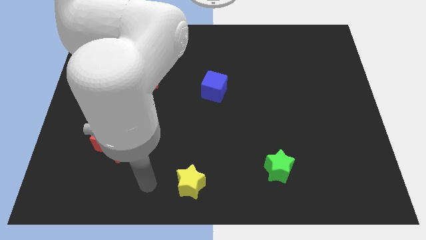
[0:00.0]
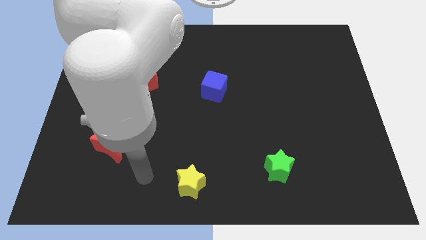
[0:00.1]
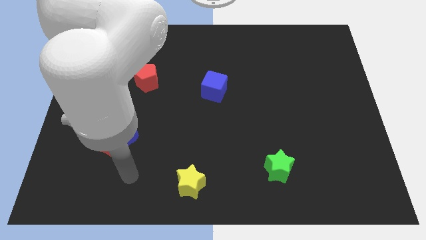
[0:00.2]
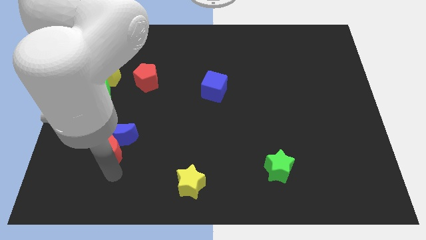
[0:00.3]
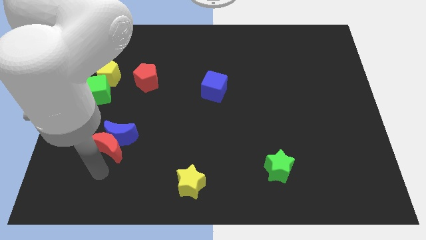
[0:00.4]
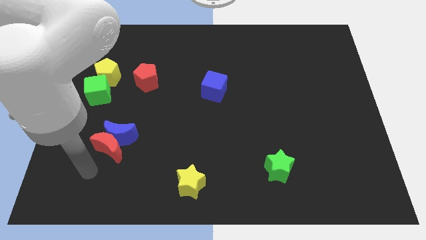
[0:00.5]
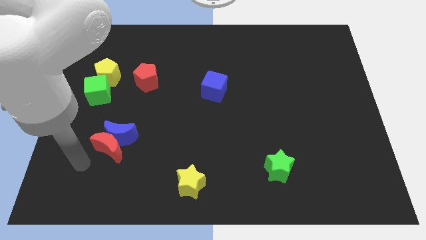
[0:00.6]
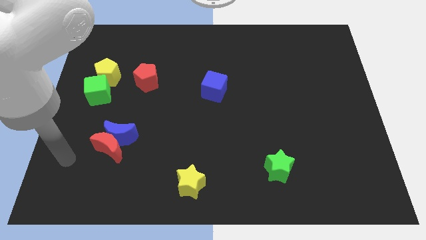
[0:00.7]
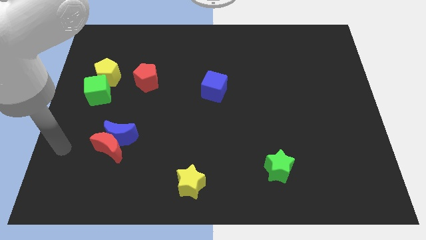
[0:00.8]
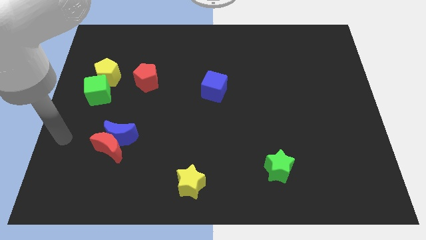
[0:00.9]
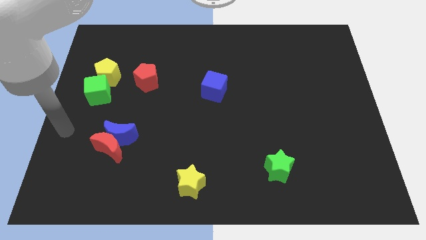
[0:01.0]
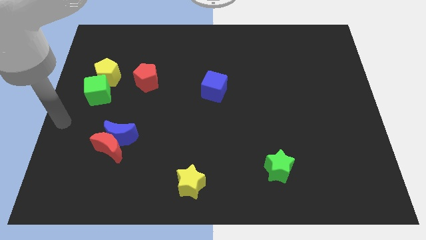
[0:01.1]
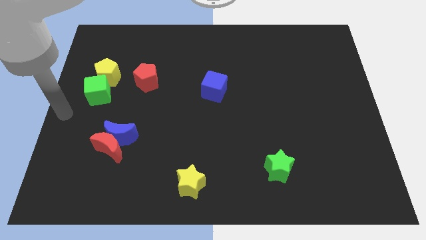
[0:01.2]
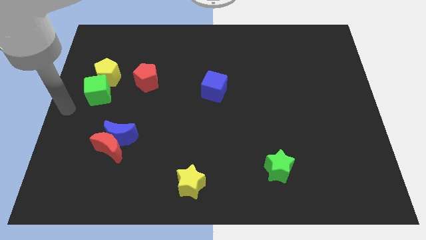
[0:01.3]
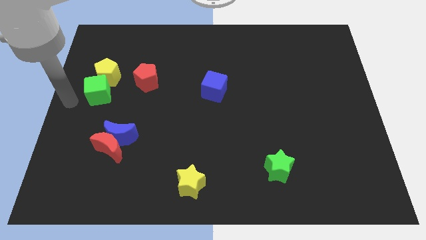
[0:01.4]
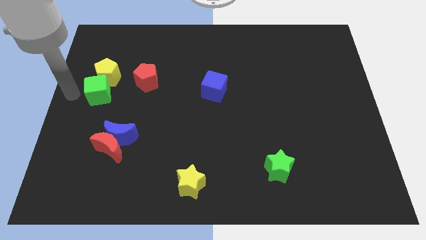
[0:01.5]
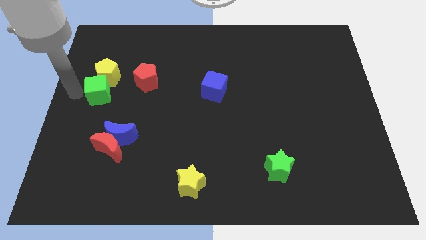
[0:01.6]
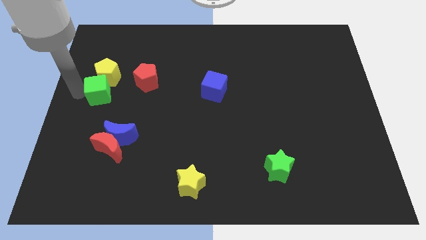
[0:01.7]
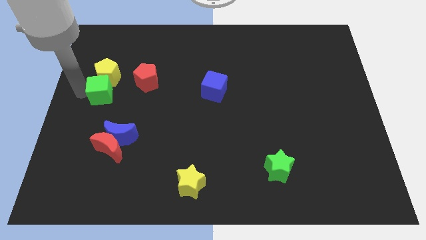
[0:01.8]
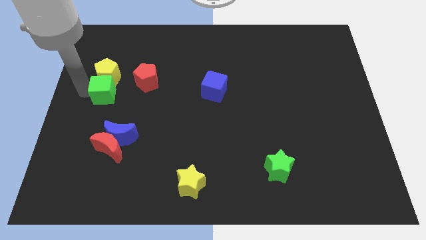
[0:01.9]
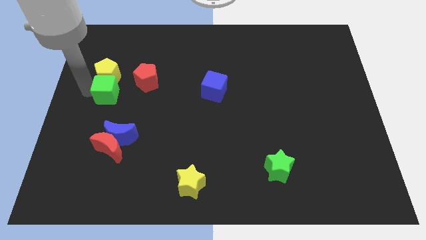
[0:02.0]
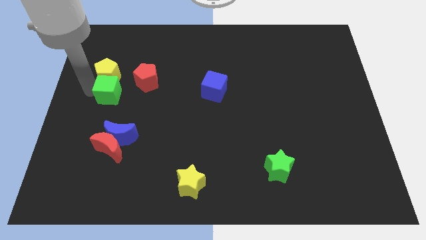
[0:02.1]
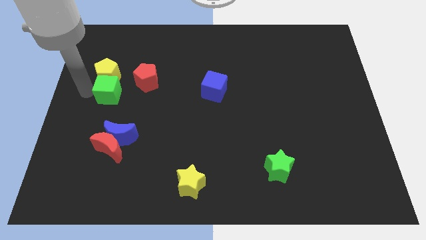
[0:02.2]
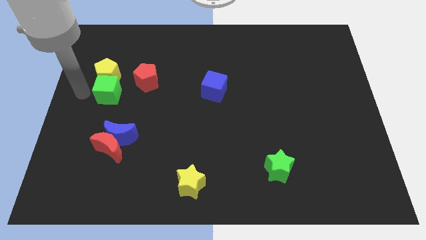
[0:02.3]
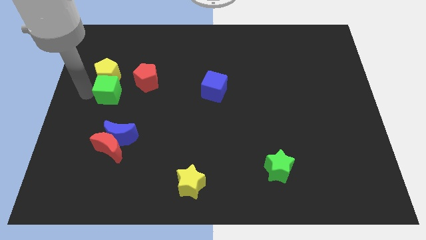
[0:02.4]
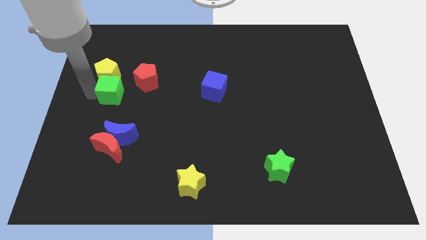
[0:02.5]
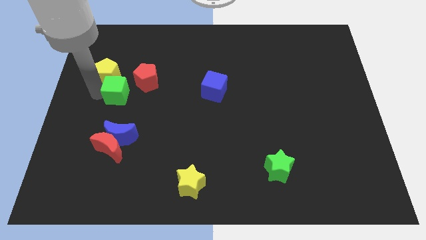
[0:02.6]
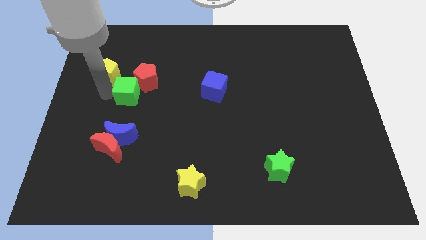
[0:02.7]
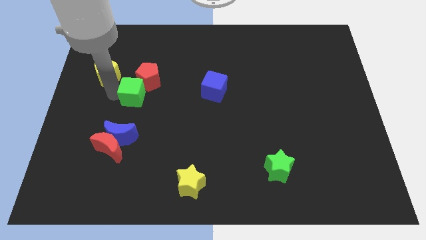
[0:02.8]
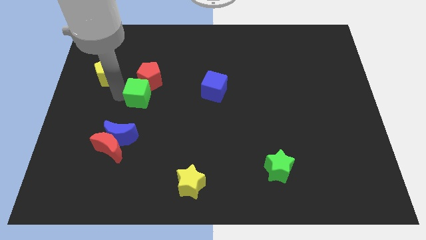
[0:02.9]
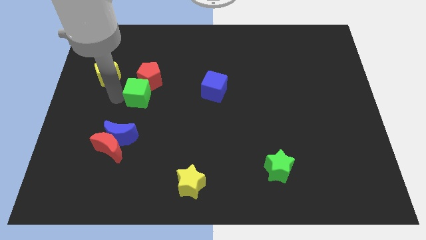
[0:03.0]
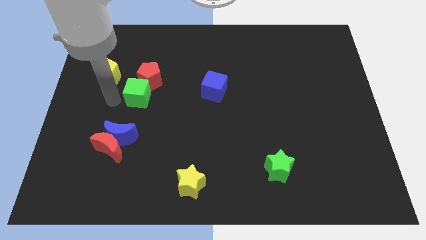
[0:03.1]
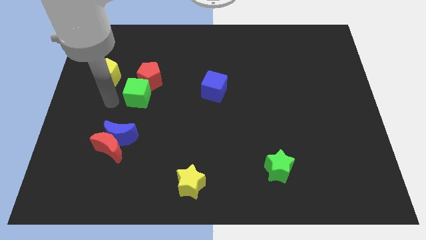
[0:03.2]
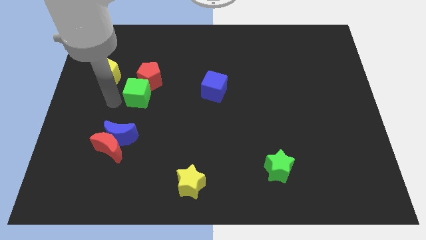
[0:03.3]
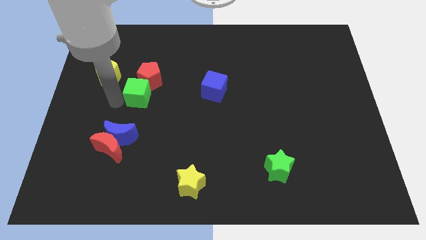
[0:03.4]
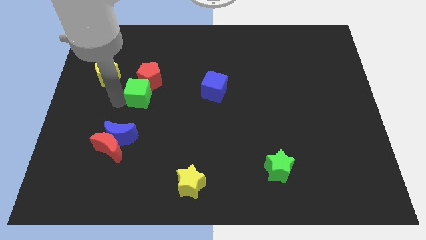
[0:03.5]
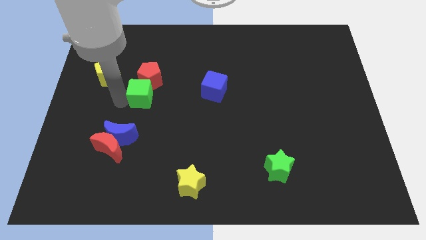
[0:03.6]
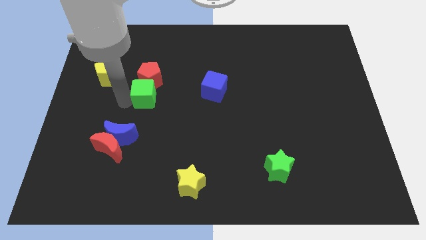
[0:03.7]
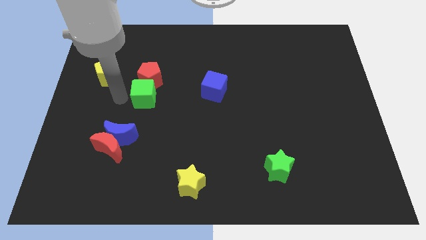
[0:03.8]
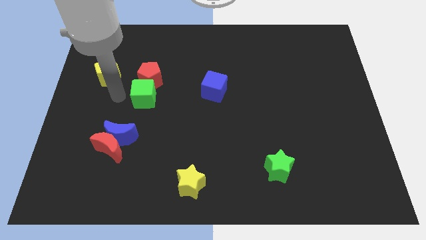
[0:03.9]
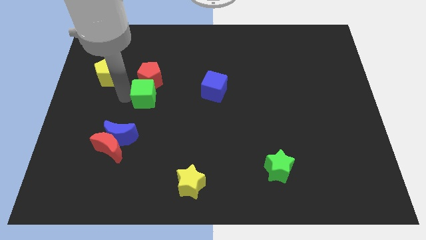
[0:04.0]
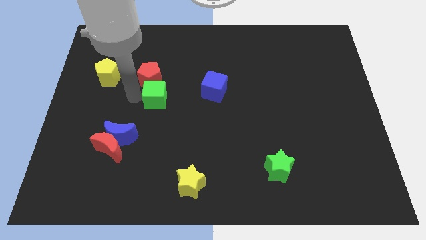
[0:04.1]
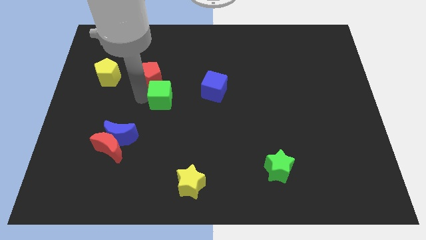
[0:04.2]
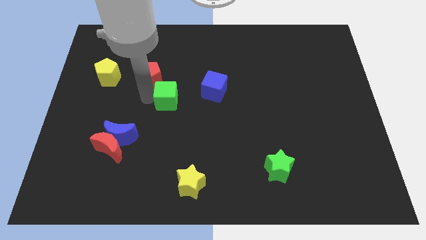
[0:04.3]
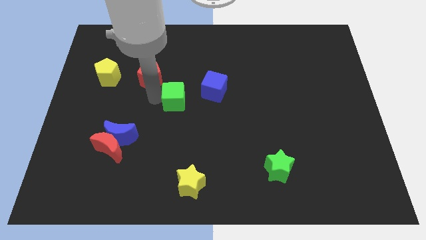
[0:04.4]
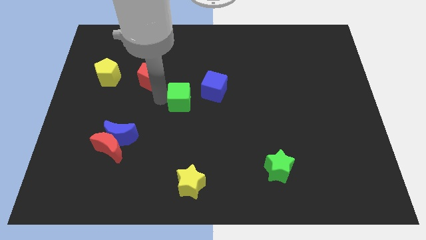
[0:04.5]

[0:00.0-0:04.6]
push the green cube to the right

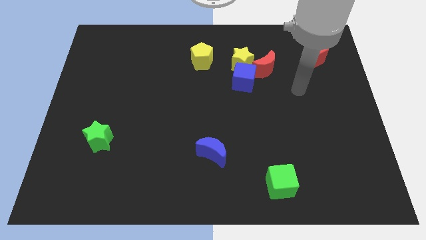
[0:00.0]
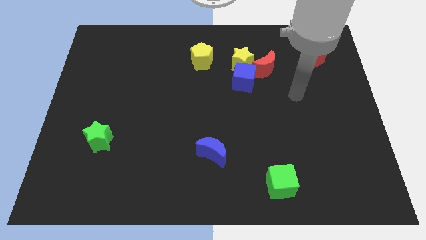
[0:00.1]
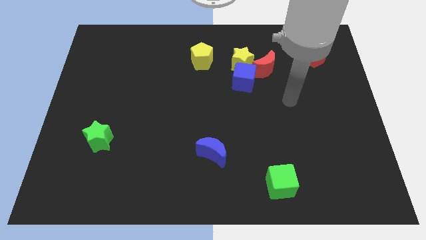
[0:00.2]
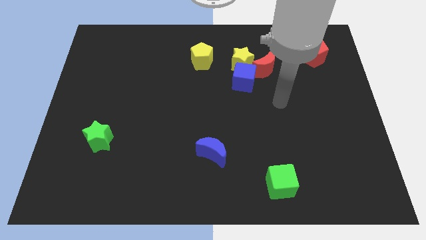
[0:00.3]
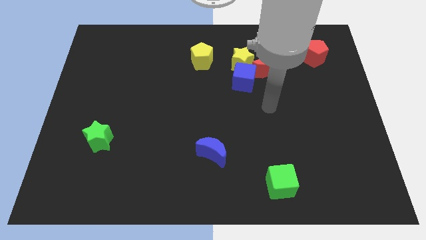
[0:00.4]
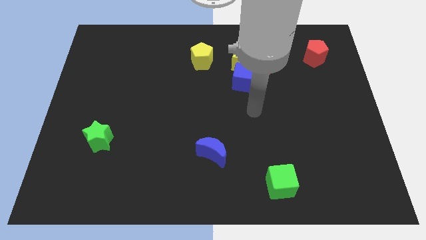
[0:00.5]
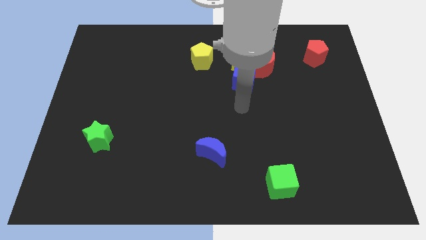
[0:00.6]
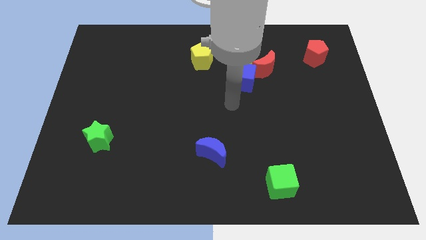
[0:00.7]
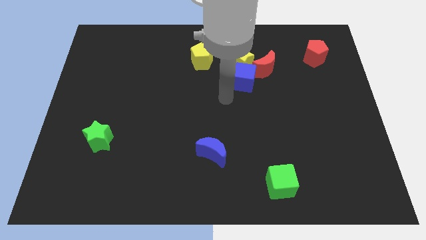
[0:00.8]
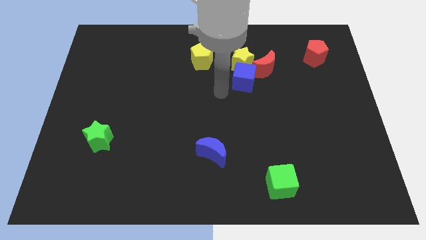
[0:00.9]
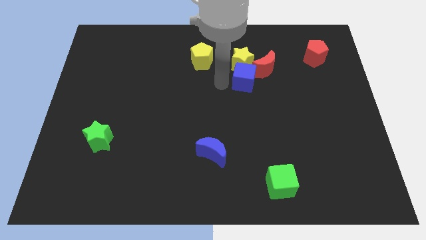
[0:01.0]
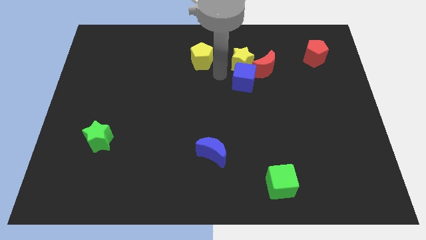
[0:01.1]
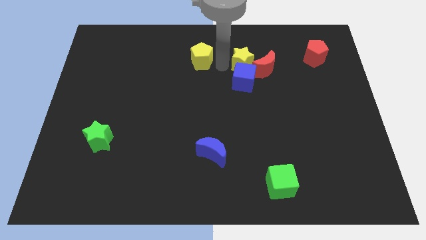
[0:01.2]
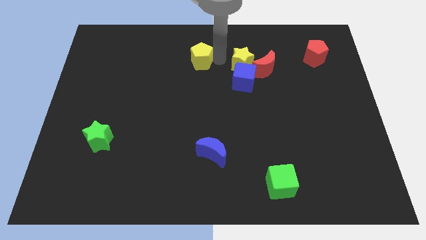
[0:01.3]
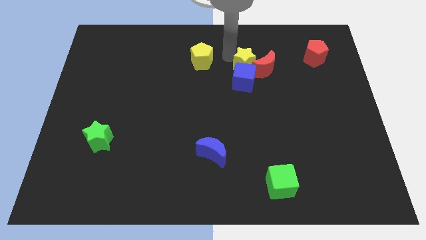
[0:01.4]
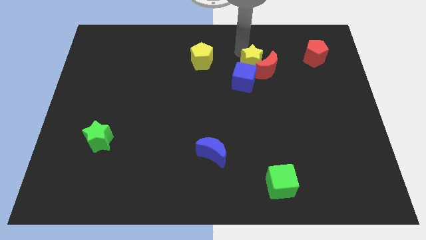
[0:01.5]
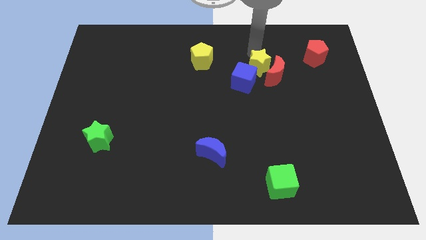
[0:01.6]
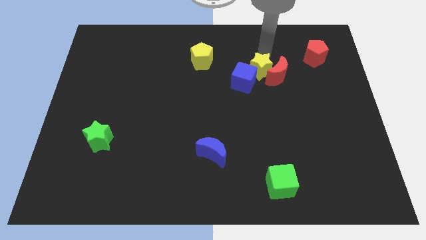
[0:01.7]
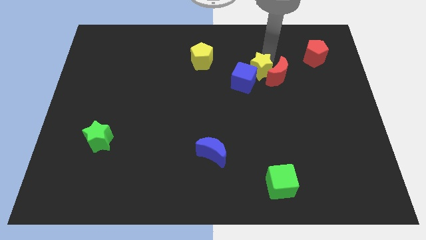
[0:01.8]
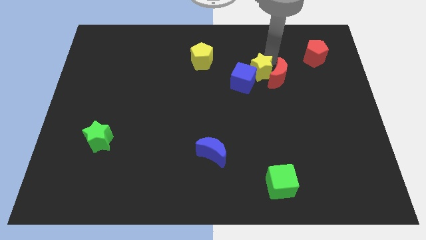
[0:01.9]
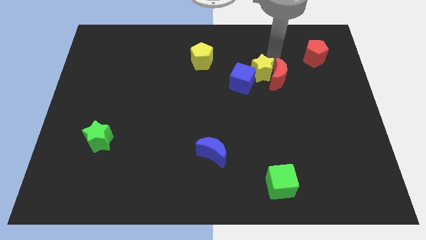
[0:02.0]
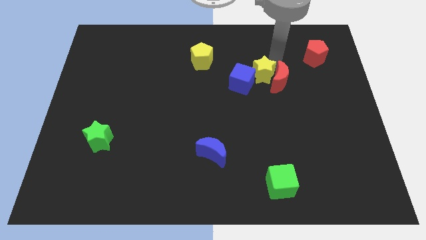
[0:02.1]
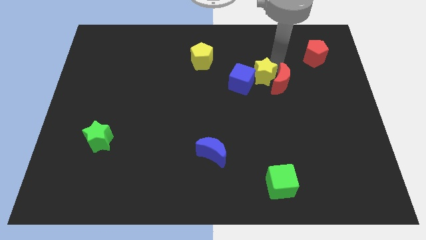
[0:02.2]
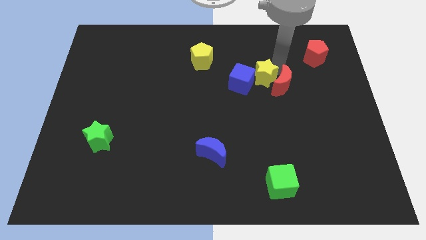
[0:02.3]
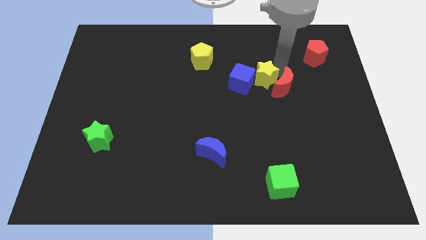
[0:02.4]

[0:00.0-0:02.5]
move the red moon a little bit down and to the right diagonally

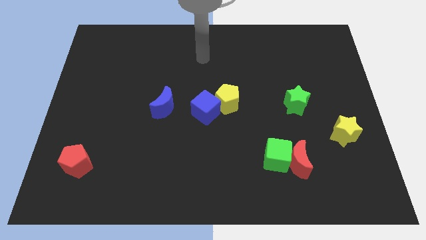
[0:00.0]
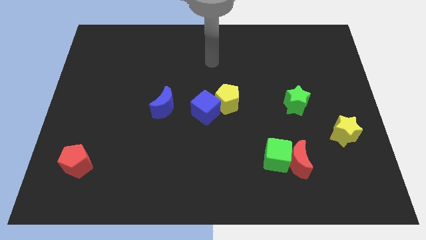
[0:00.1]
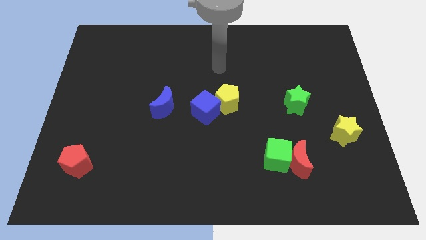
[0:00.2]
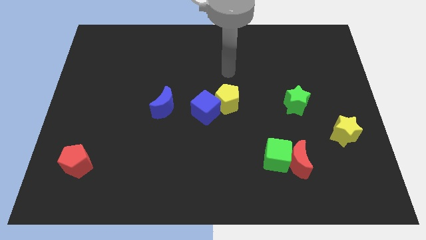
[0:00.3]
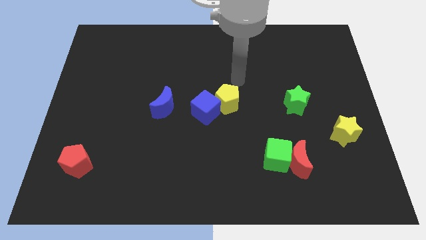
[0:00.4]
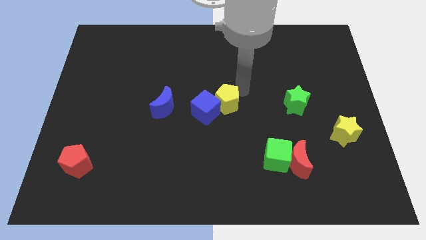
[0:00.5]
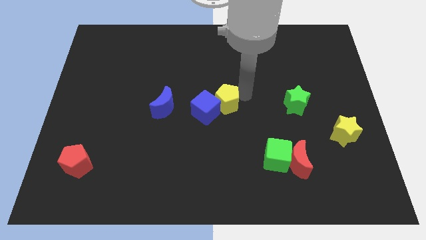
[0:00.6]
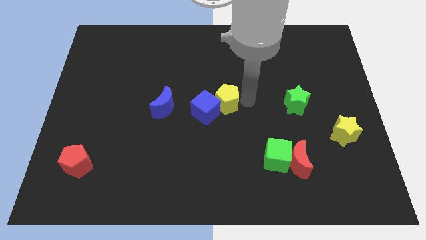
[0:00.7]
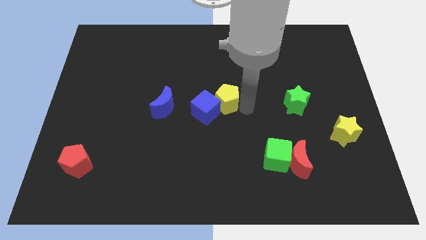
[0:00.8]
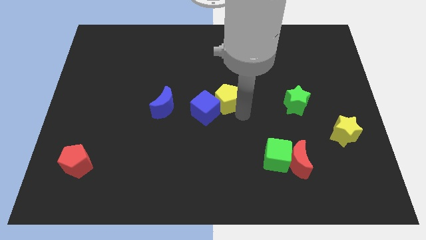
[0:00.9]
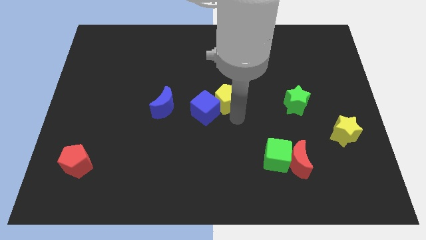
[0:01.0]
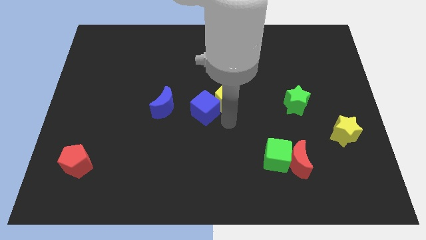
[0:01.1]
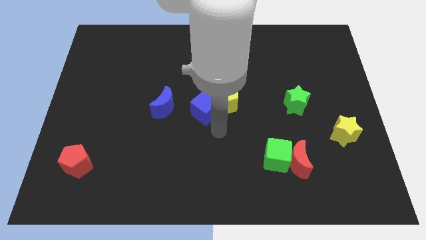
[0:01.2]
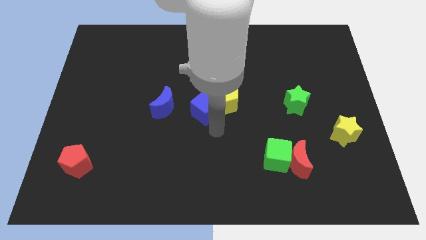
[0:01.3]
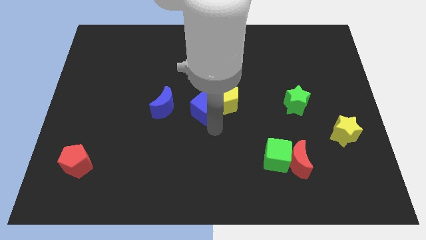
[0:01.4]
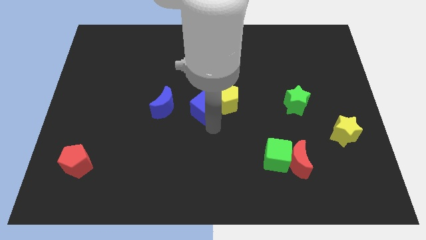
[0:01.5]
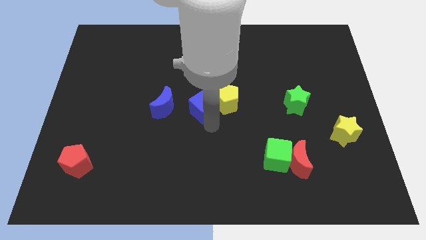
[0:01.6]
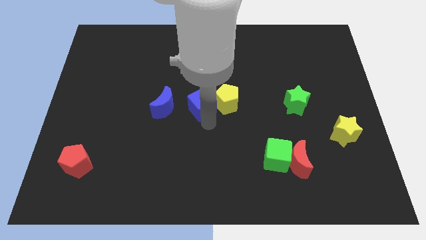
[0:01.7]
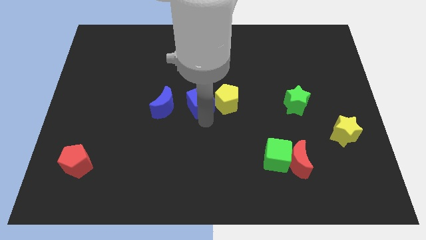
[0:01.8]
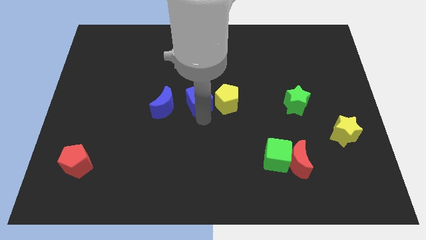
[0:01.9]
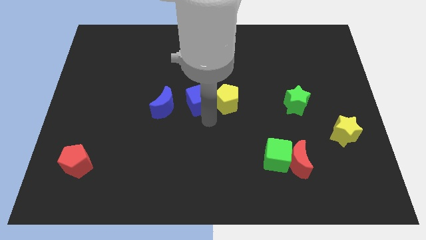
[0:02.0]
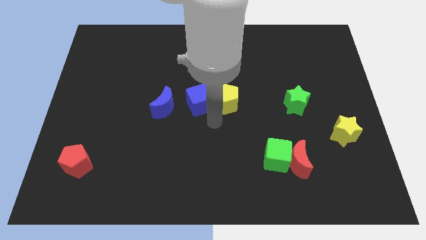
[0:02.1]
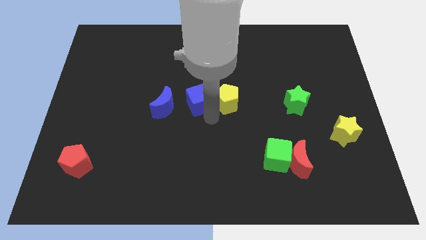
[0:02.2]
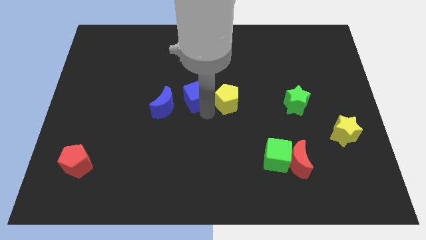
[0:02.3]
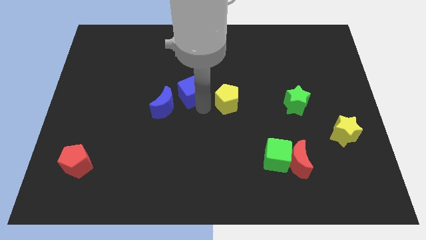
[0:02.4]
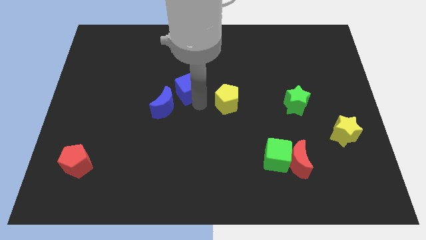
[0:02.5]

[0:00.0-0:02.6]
slightly slide the blue cube upwards and then to the left
